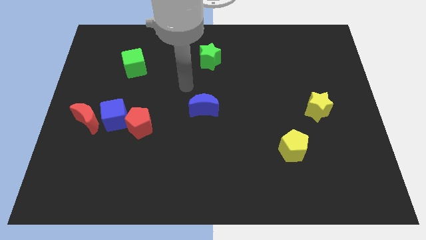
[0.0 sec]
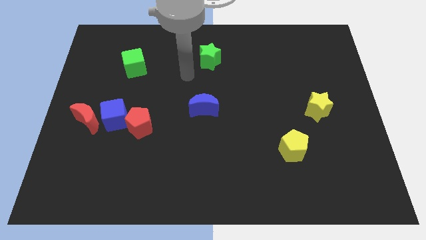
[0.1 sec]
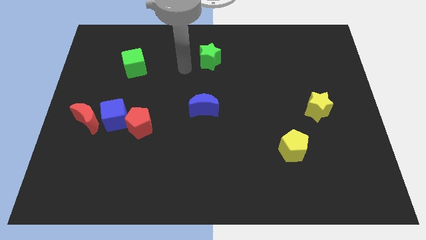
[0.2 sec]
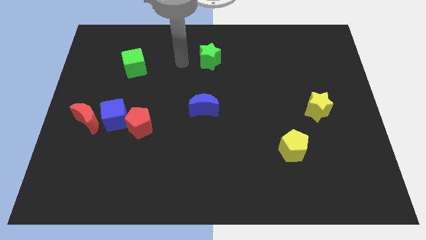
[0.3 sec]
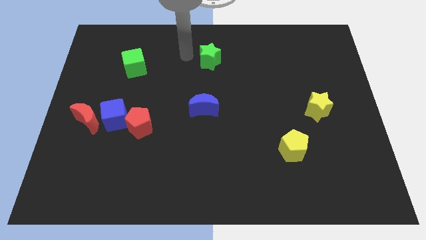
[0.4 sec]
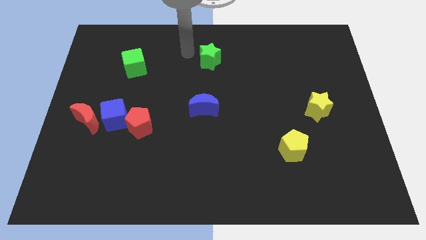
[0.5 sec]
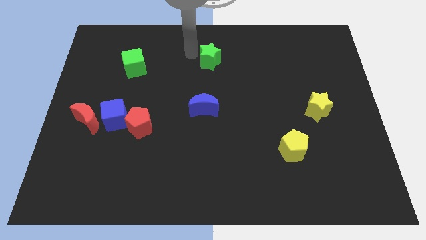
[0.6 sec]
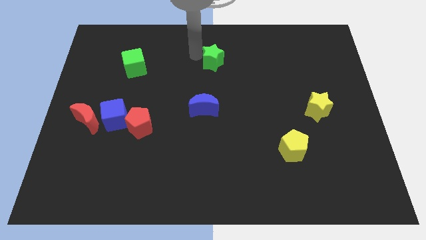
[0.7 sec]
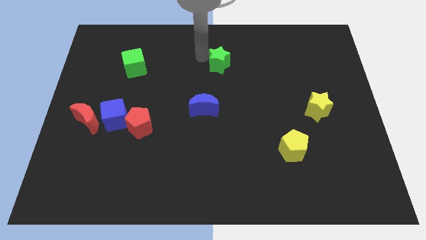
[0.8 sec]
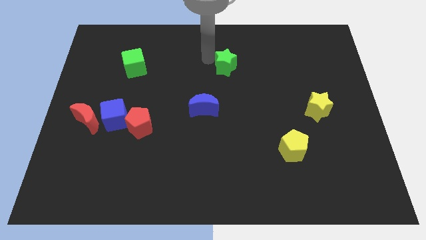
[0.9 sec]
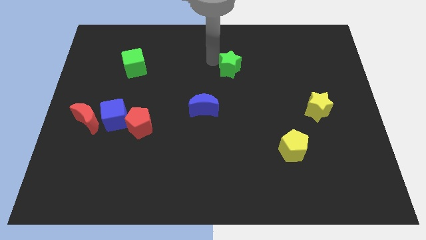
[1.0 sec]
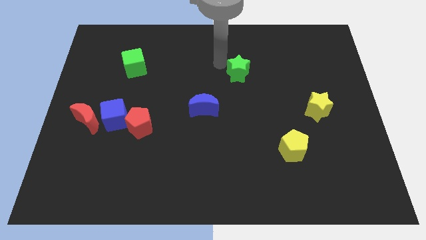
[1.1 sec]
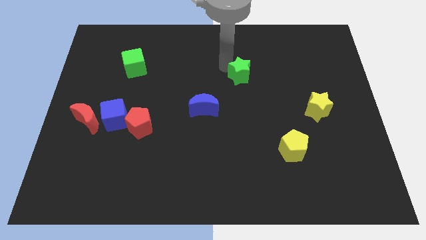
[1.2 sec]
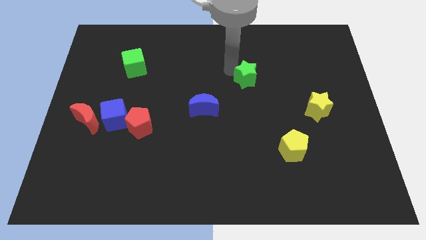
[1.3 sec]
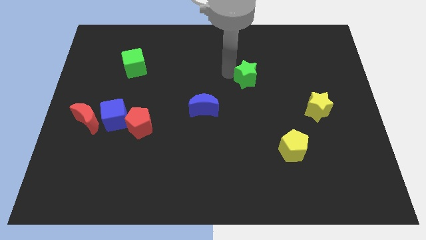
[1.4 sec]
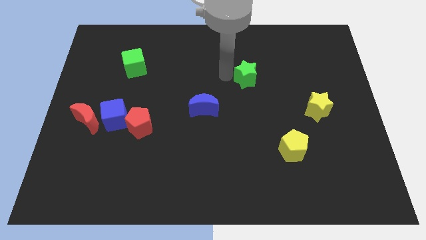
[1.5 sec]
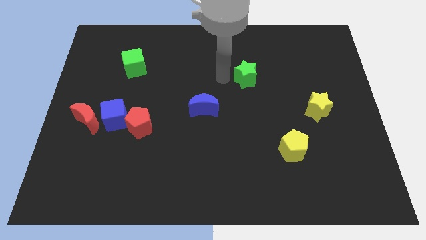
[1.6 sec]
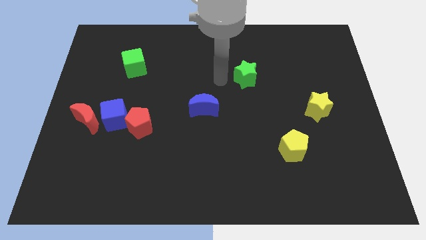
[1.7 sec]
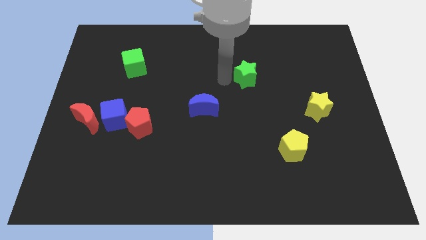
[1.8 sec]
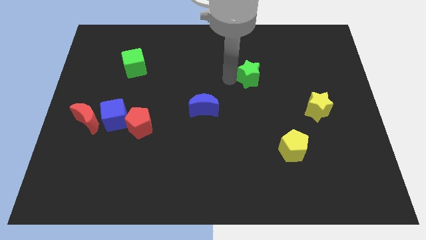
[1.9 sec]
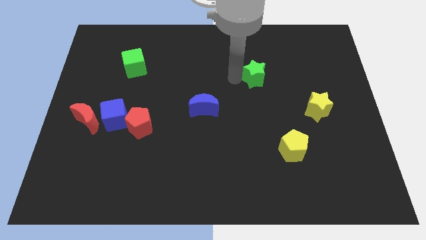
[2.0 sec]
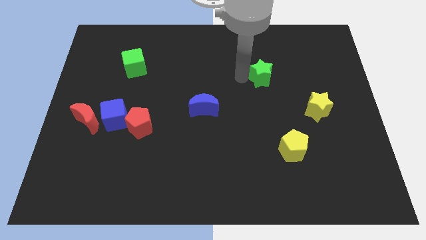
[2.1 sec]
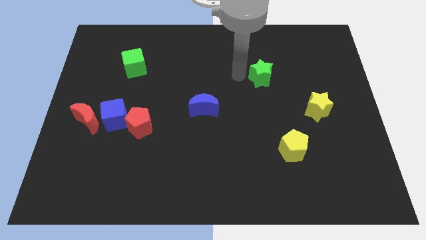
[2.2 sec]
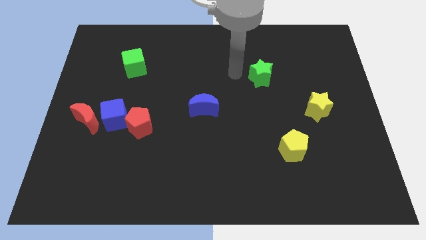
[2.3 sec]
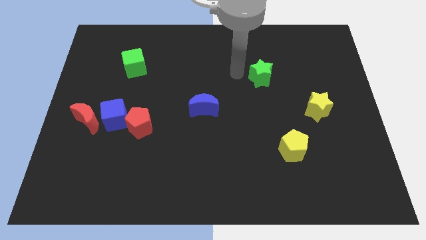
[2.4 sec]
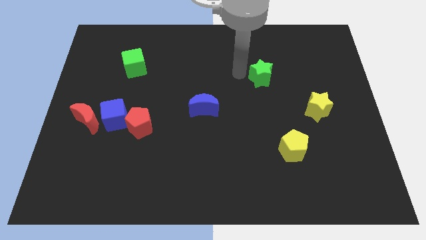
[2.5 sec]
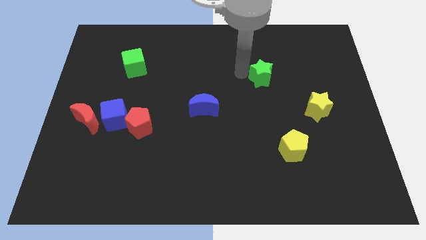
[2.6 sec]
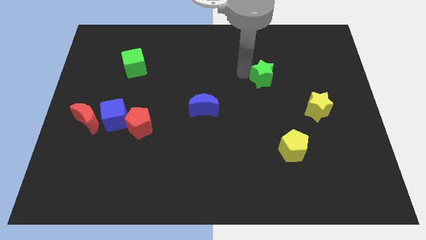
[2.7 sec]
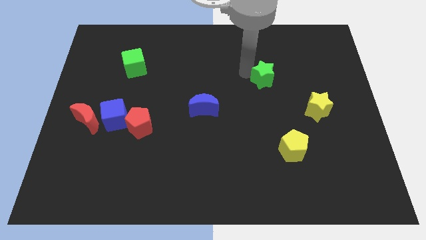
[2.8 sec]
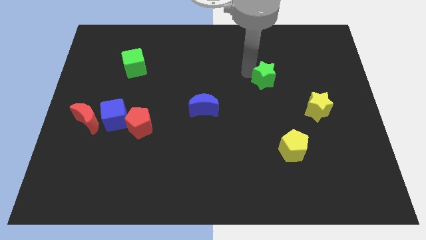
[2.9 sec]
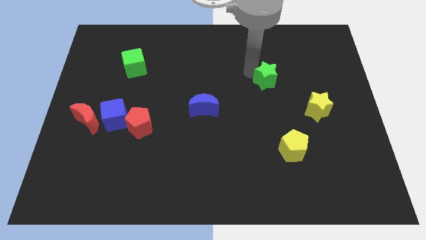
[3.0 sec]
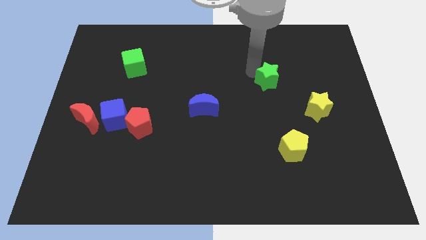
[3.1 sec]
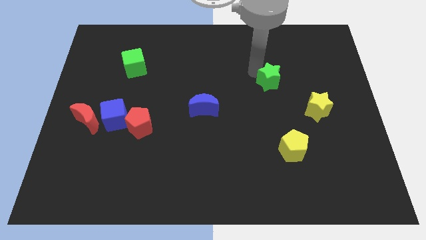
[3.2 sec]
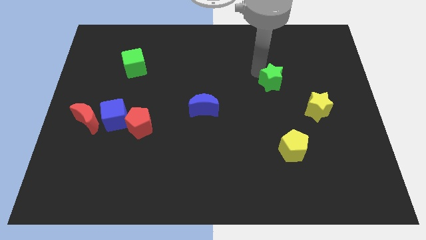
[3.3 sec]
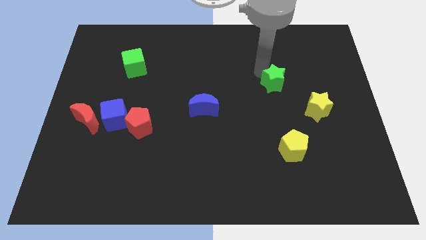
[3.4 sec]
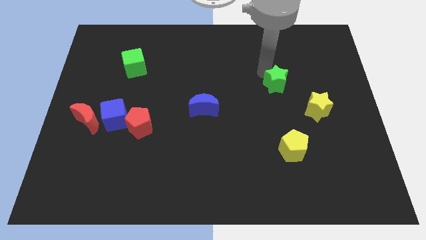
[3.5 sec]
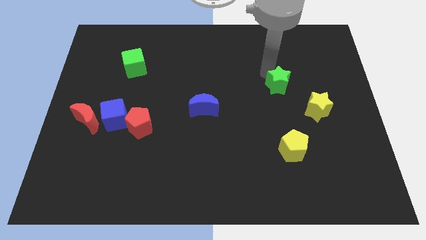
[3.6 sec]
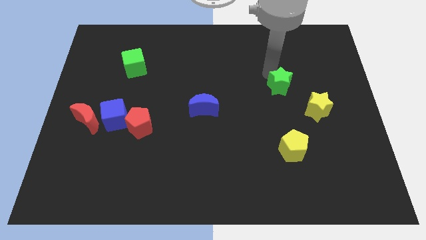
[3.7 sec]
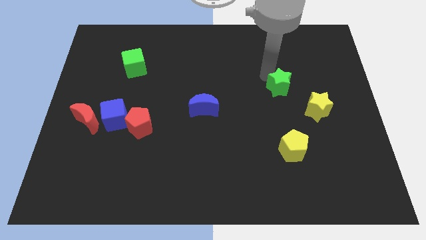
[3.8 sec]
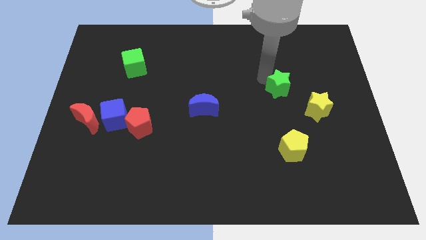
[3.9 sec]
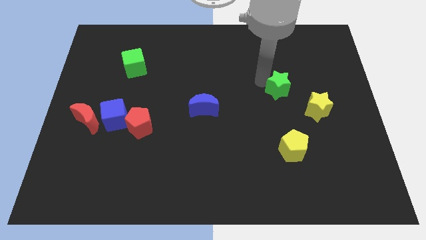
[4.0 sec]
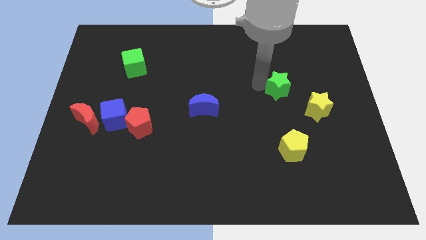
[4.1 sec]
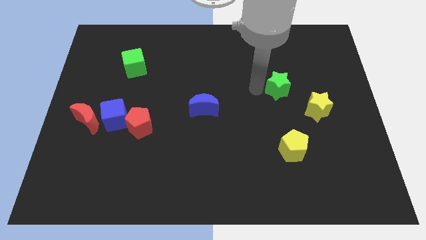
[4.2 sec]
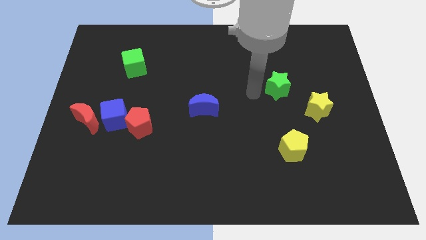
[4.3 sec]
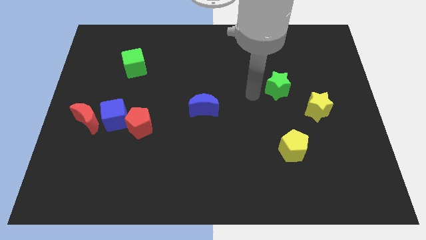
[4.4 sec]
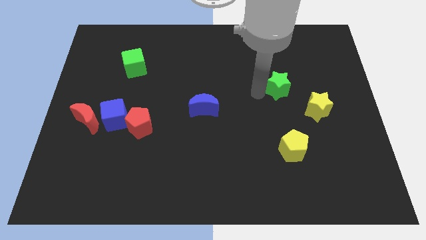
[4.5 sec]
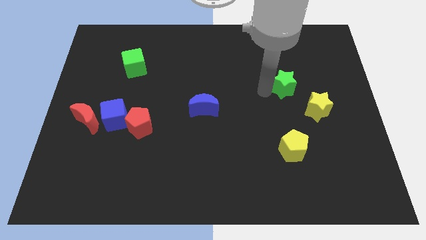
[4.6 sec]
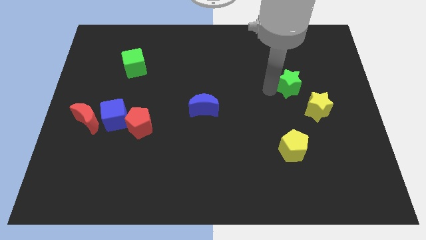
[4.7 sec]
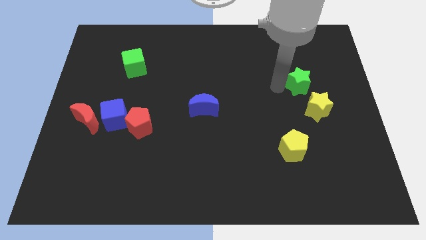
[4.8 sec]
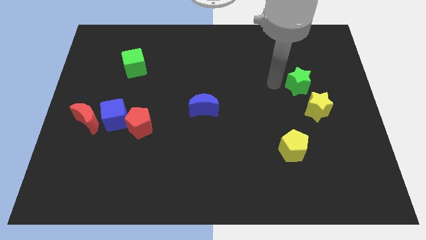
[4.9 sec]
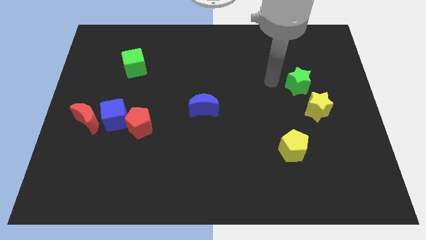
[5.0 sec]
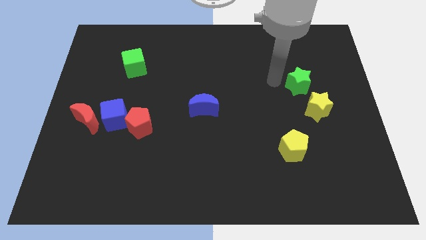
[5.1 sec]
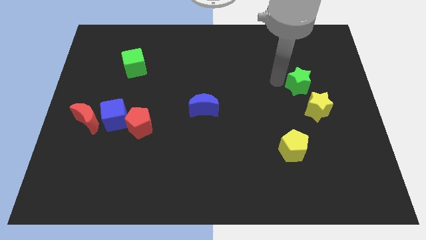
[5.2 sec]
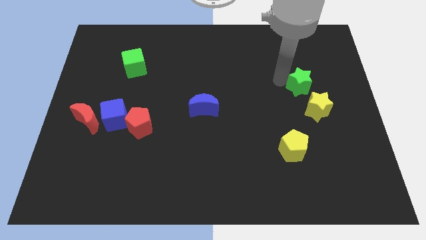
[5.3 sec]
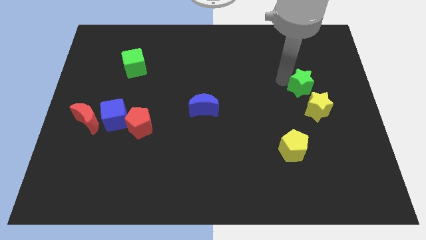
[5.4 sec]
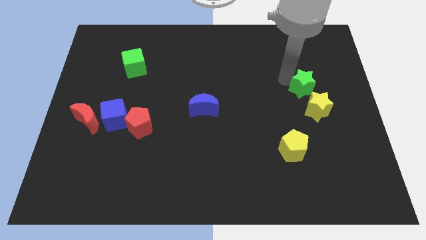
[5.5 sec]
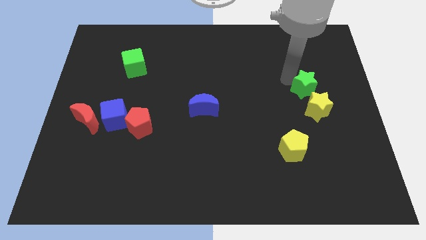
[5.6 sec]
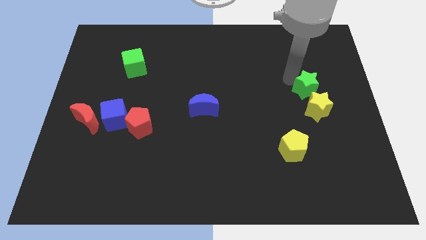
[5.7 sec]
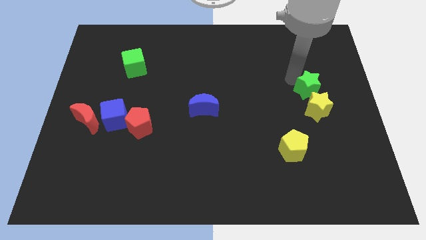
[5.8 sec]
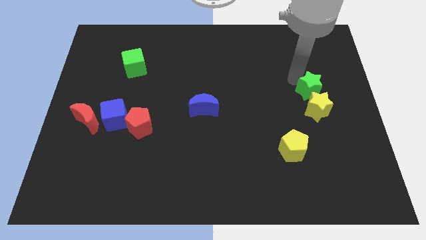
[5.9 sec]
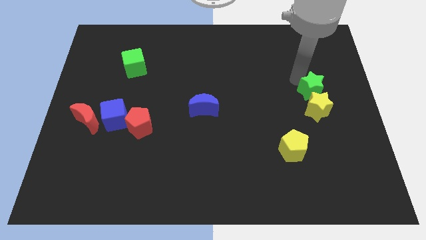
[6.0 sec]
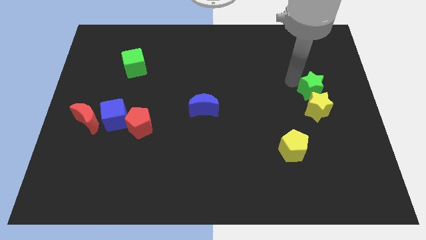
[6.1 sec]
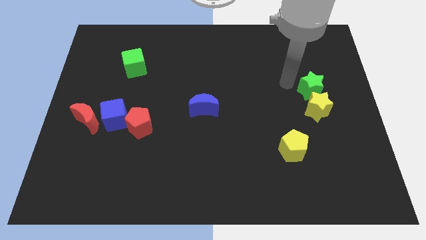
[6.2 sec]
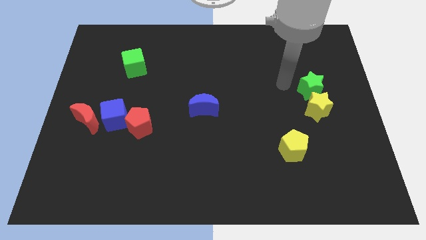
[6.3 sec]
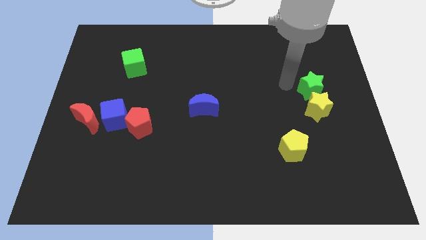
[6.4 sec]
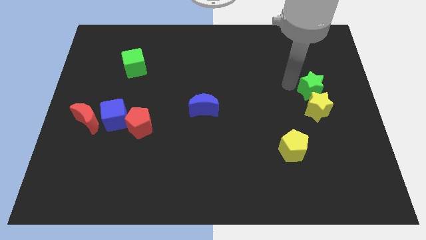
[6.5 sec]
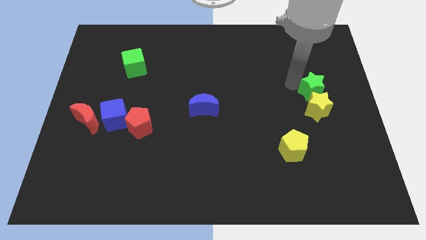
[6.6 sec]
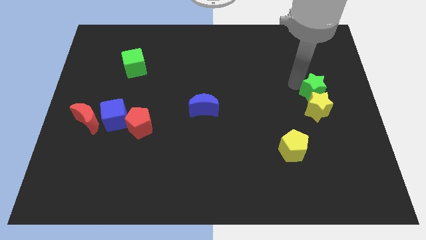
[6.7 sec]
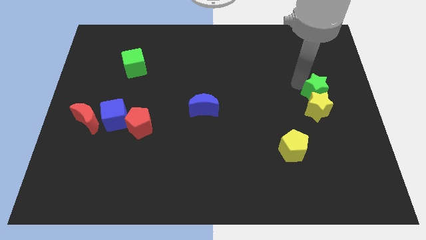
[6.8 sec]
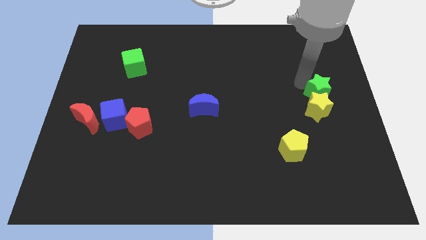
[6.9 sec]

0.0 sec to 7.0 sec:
push the green star to the right side of the board
